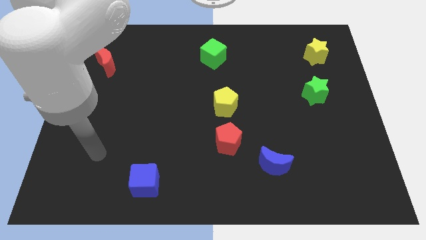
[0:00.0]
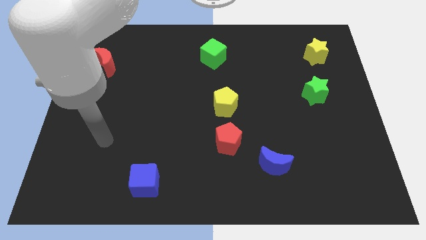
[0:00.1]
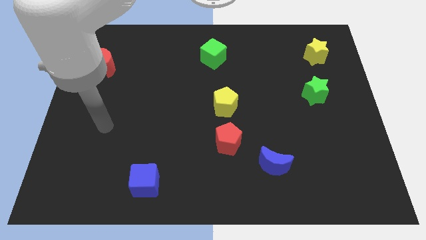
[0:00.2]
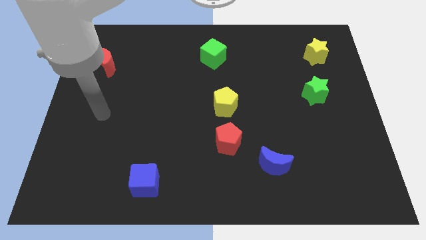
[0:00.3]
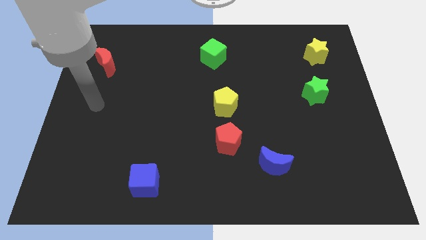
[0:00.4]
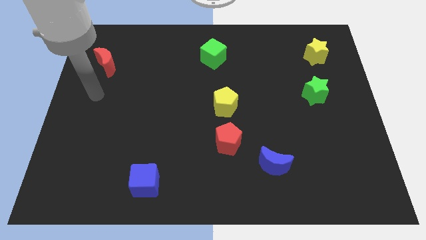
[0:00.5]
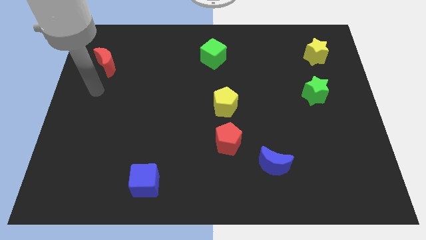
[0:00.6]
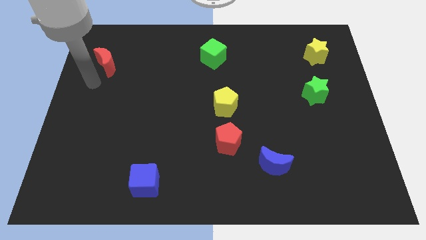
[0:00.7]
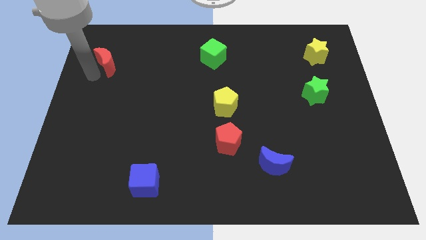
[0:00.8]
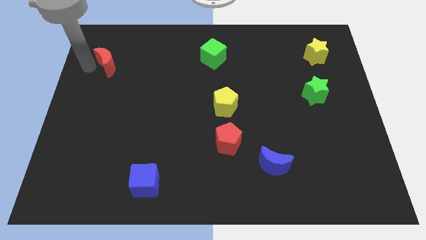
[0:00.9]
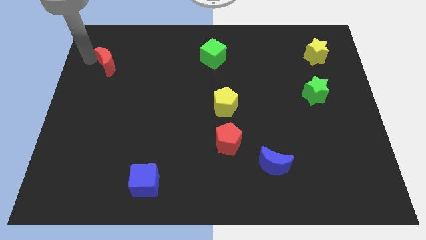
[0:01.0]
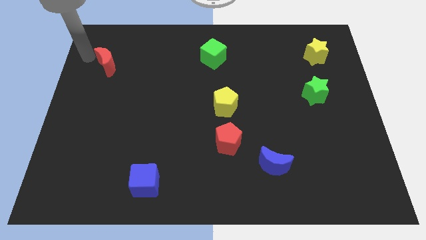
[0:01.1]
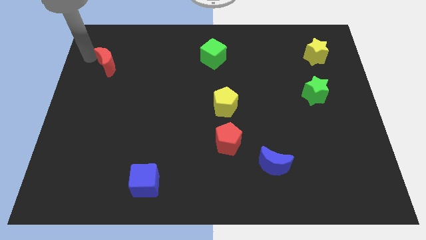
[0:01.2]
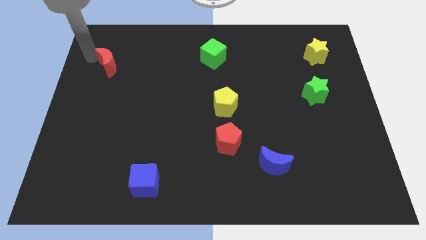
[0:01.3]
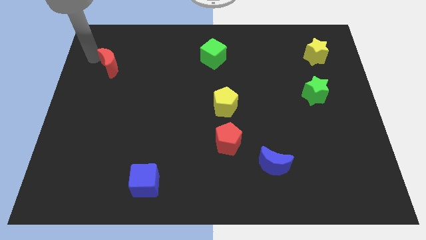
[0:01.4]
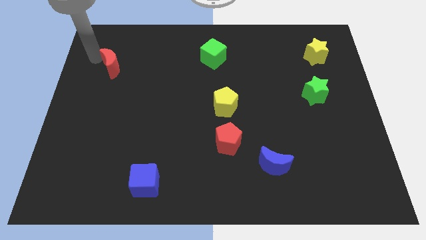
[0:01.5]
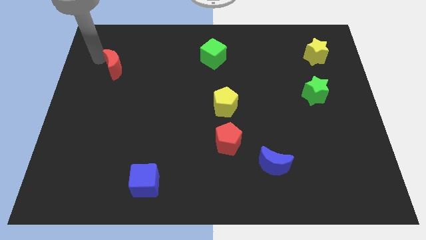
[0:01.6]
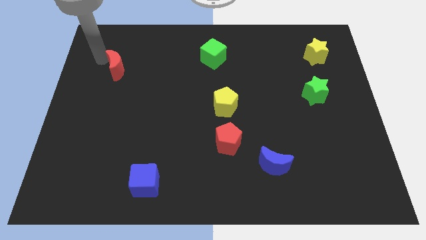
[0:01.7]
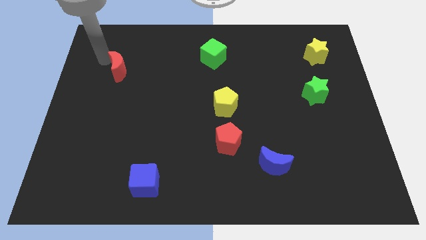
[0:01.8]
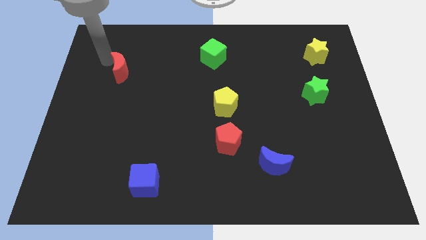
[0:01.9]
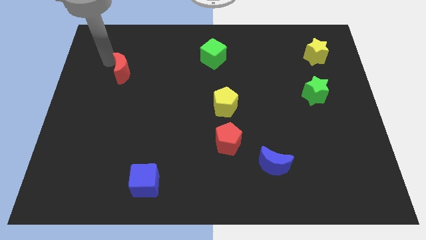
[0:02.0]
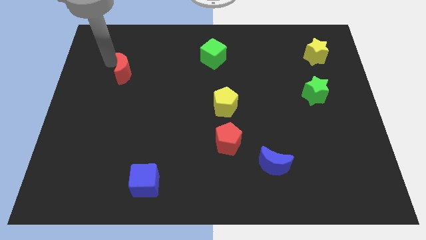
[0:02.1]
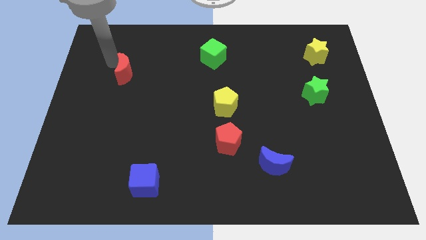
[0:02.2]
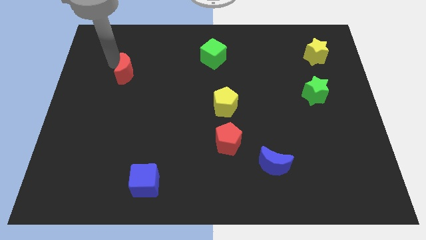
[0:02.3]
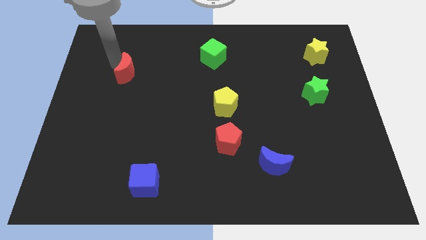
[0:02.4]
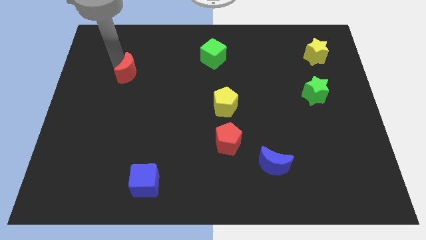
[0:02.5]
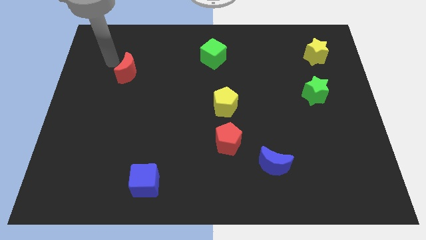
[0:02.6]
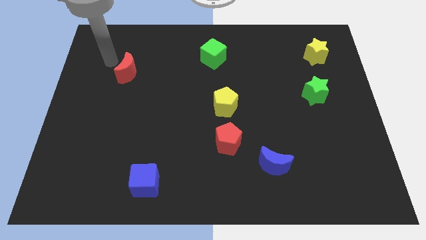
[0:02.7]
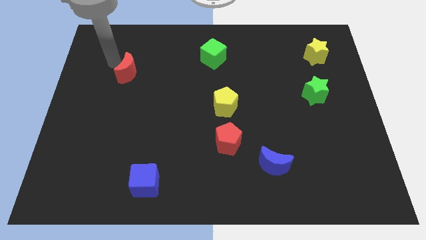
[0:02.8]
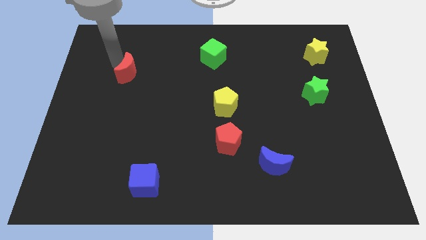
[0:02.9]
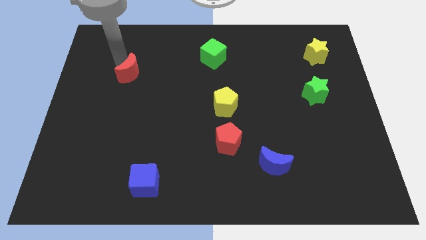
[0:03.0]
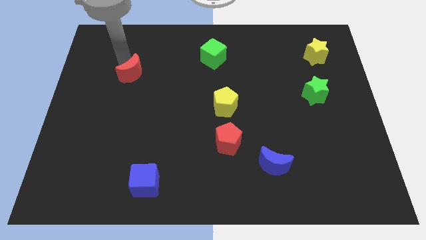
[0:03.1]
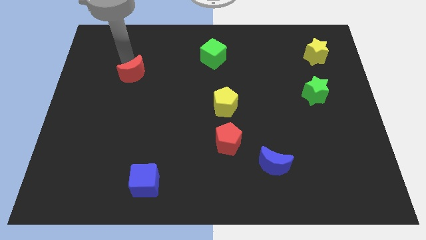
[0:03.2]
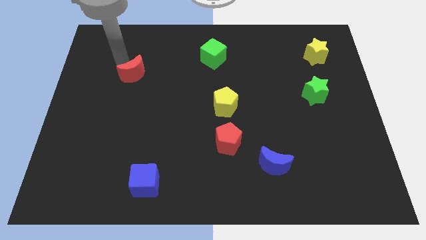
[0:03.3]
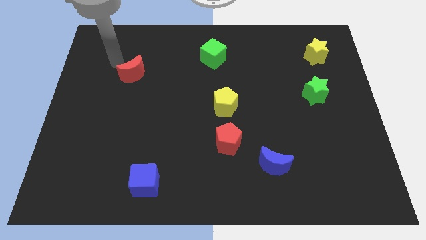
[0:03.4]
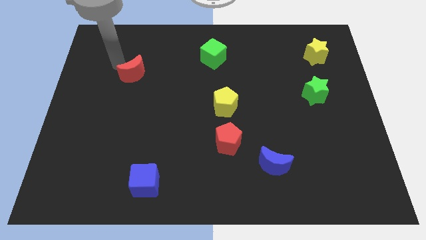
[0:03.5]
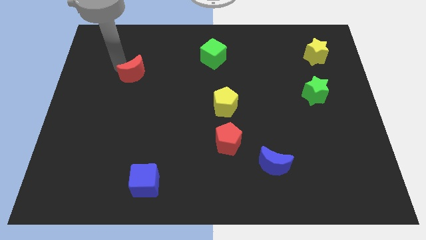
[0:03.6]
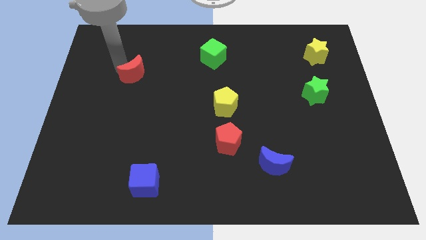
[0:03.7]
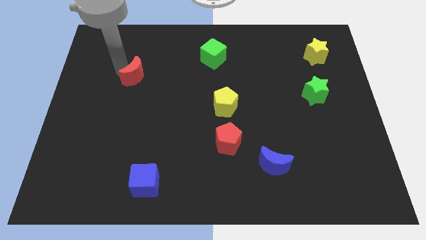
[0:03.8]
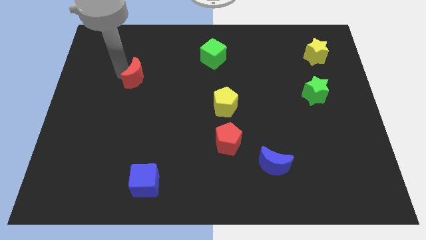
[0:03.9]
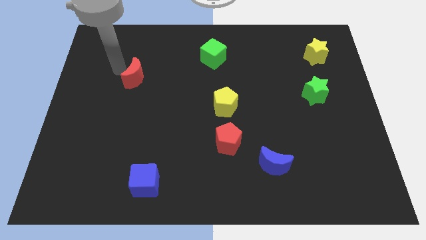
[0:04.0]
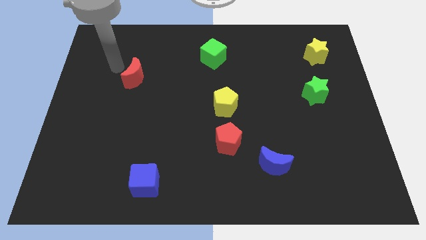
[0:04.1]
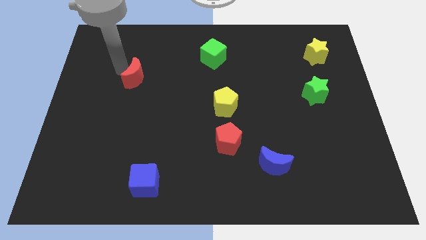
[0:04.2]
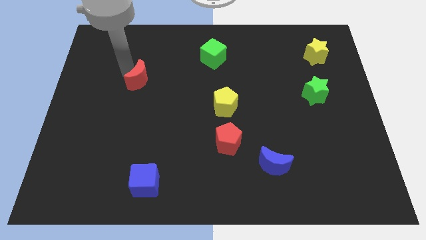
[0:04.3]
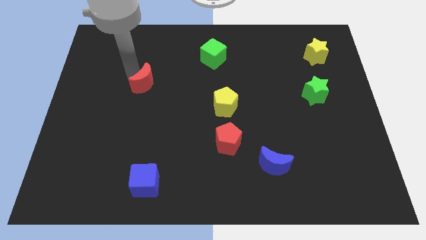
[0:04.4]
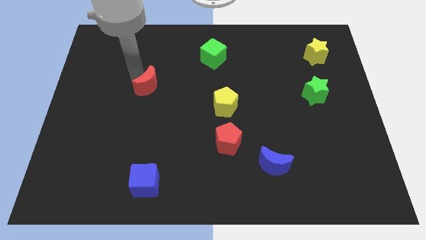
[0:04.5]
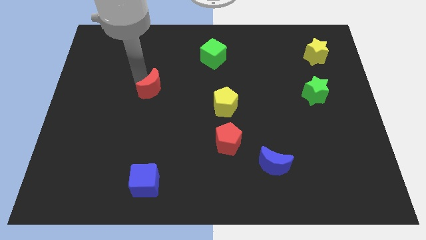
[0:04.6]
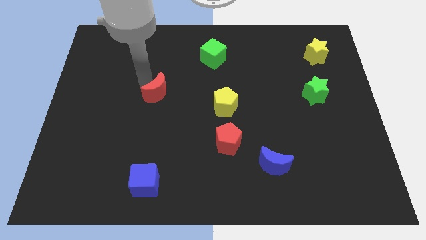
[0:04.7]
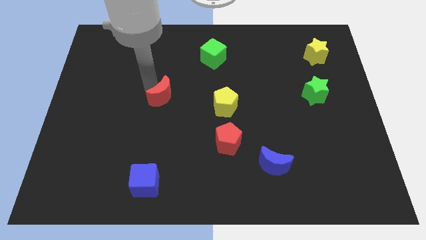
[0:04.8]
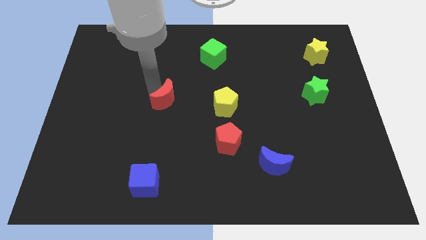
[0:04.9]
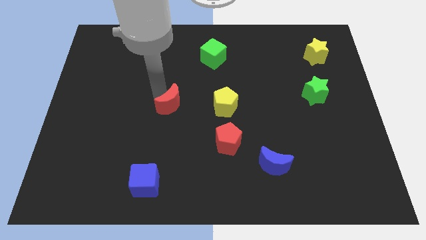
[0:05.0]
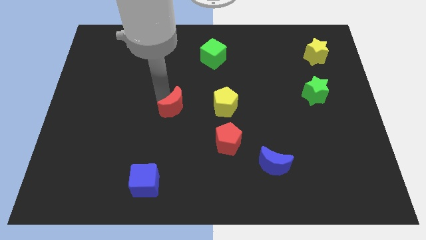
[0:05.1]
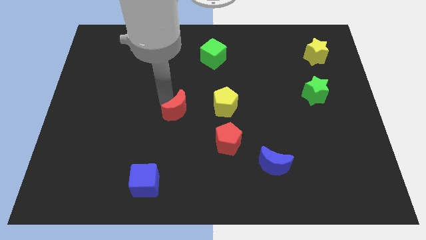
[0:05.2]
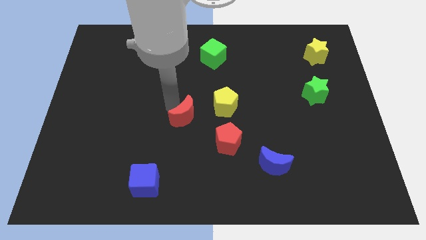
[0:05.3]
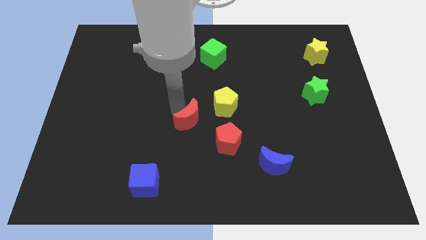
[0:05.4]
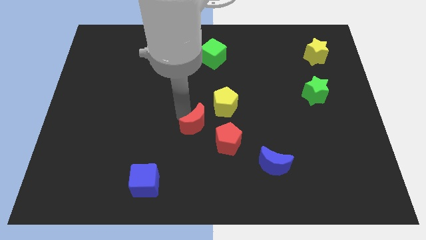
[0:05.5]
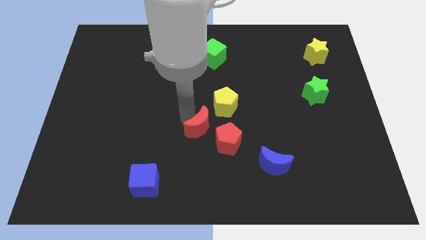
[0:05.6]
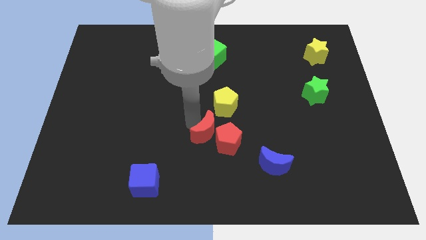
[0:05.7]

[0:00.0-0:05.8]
put the red moon towards the red pentagon

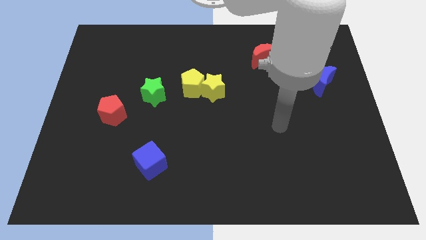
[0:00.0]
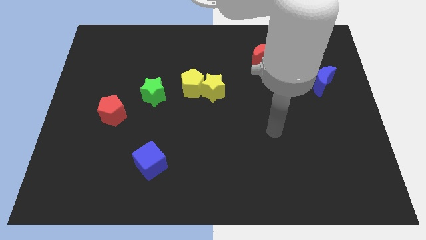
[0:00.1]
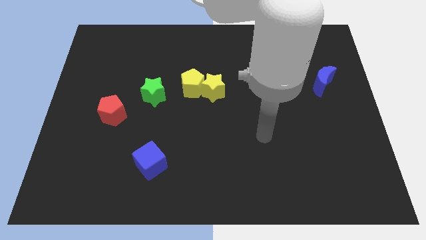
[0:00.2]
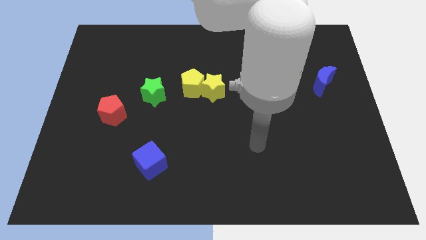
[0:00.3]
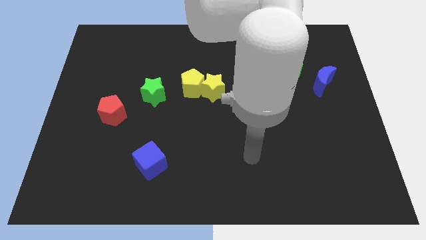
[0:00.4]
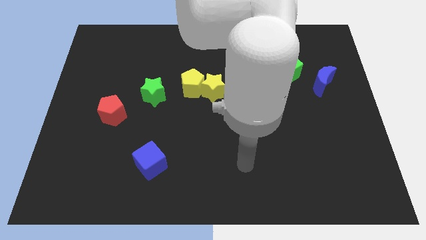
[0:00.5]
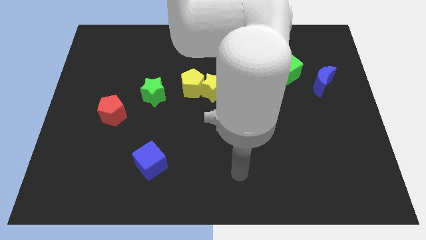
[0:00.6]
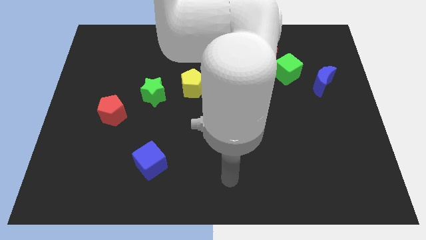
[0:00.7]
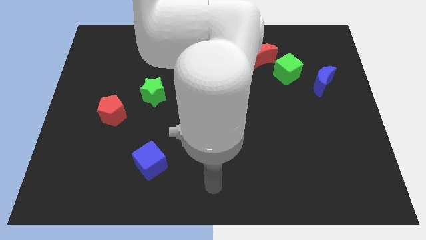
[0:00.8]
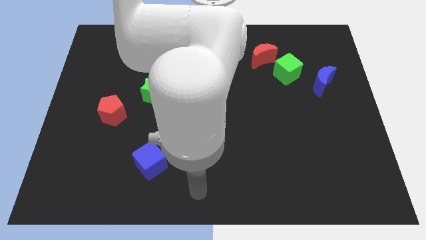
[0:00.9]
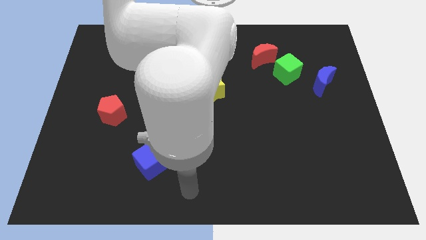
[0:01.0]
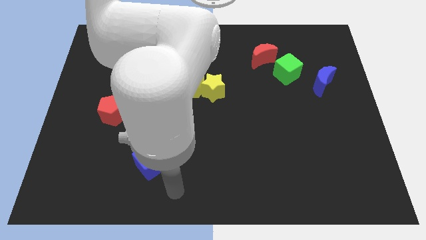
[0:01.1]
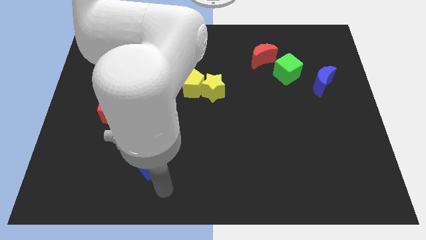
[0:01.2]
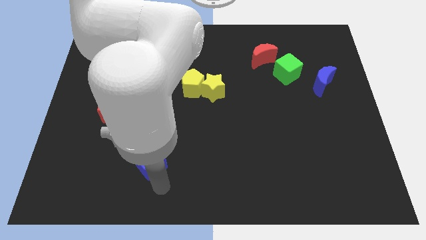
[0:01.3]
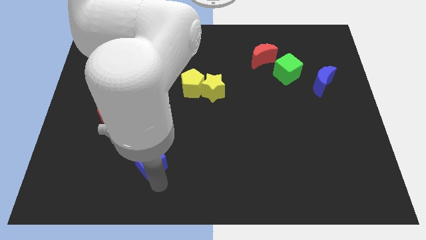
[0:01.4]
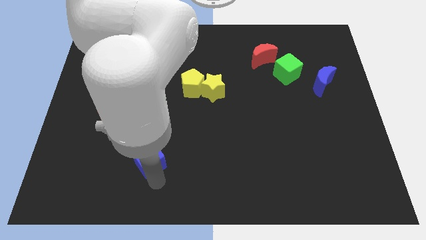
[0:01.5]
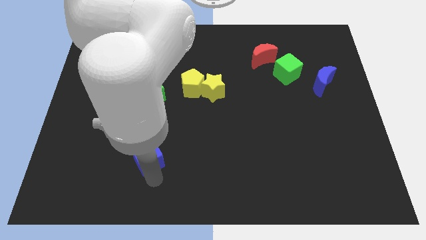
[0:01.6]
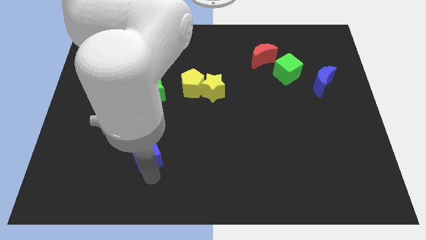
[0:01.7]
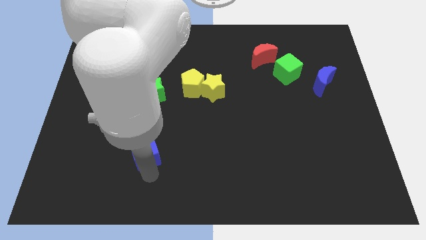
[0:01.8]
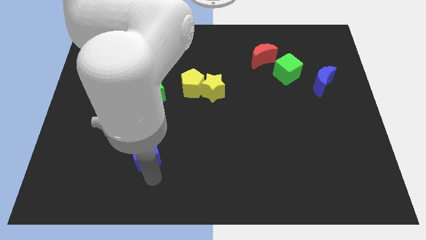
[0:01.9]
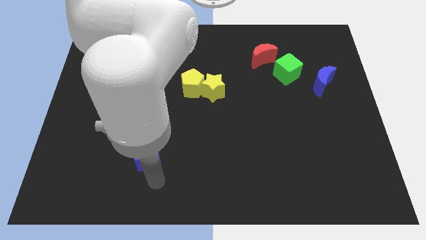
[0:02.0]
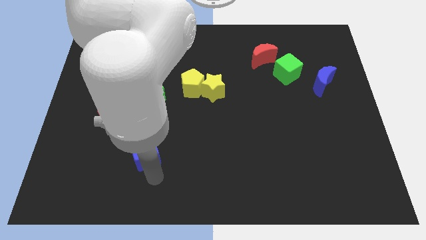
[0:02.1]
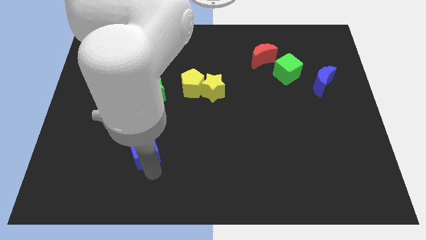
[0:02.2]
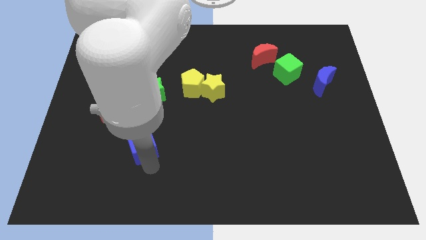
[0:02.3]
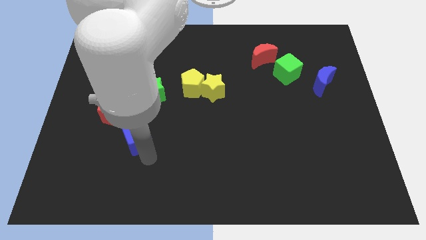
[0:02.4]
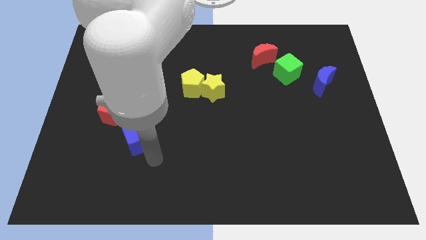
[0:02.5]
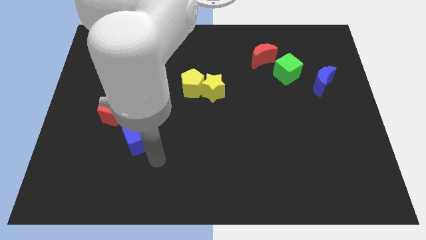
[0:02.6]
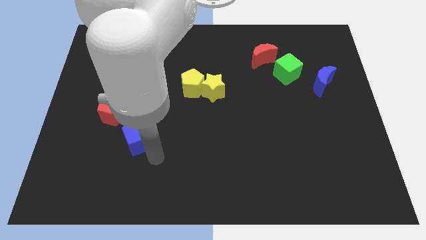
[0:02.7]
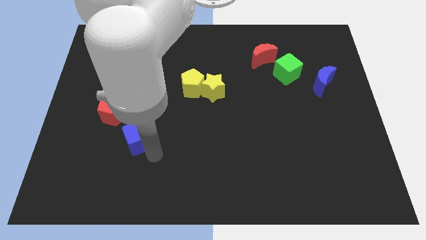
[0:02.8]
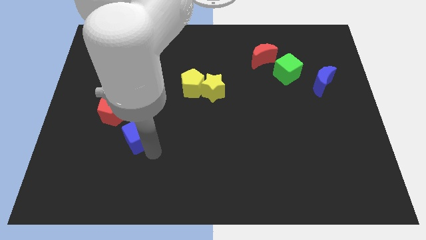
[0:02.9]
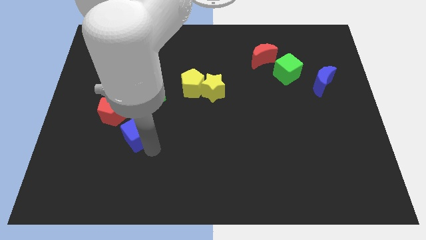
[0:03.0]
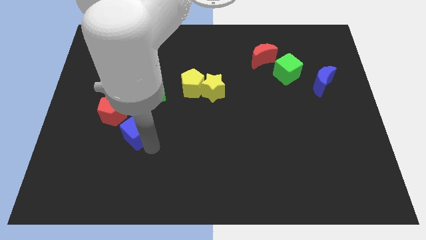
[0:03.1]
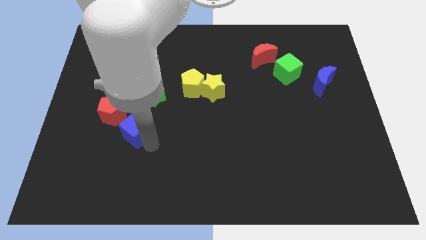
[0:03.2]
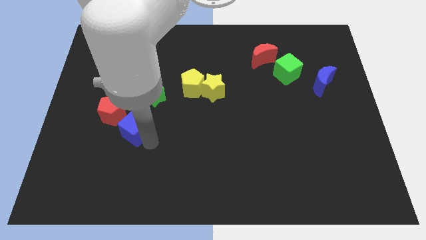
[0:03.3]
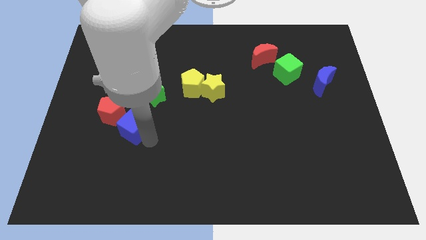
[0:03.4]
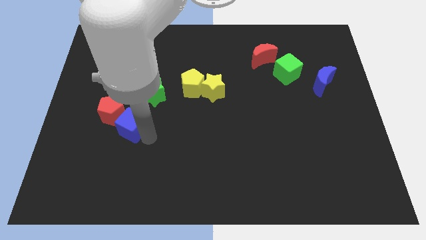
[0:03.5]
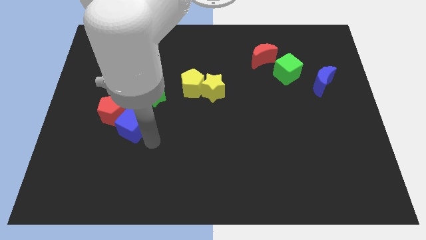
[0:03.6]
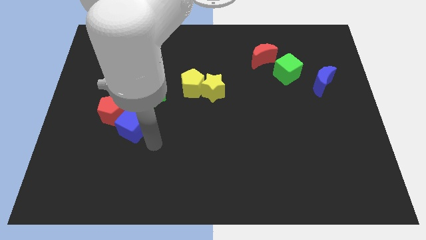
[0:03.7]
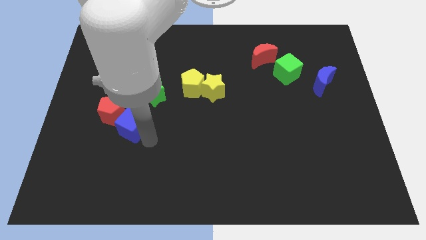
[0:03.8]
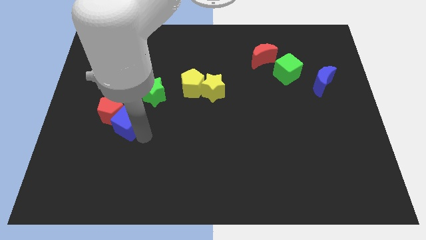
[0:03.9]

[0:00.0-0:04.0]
put the blue cube close to the red pentagon
